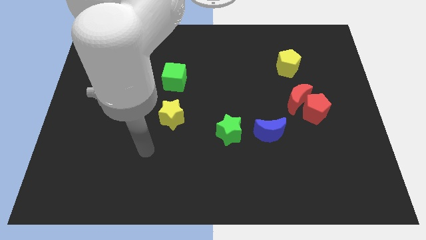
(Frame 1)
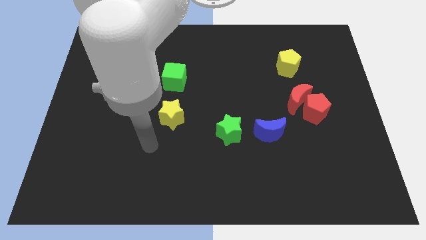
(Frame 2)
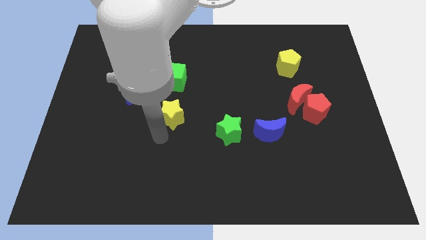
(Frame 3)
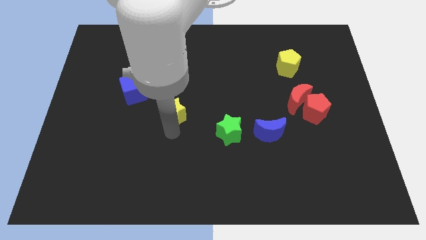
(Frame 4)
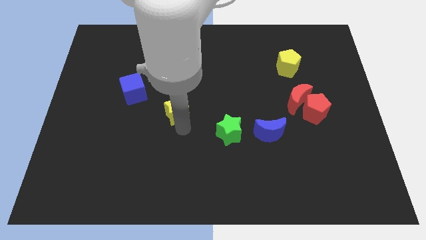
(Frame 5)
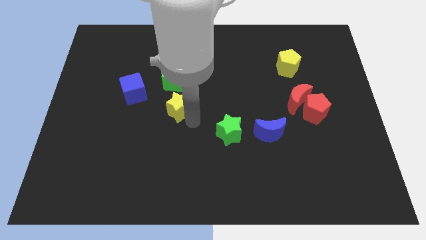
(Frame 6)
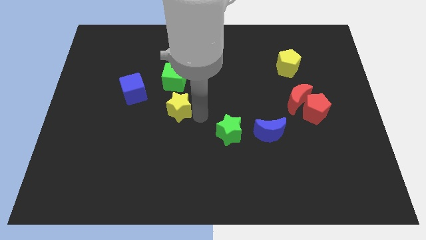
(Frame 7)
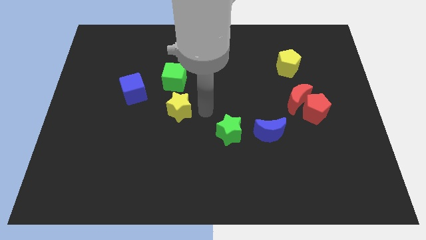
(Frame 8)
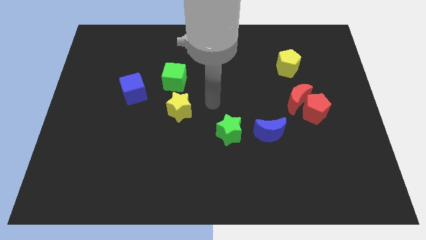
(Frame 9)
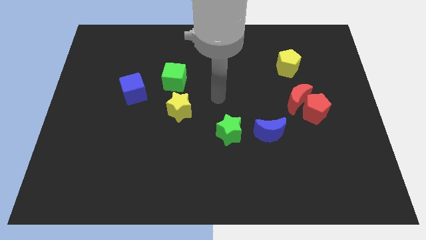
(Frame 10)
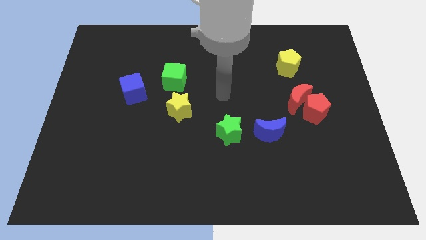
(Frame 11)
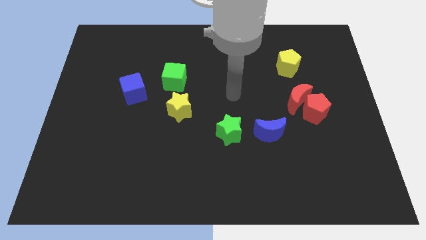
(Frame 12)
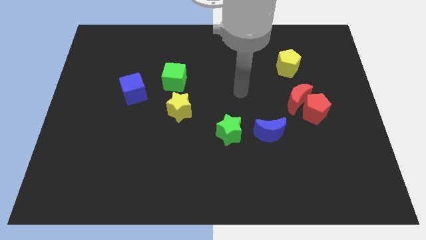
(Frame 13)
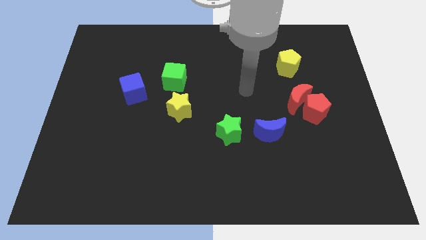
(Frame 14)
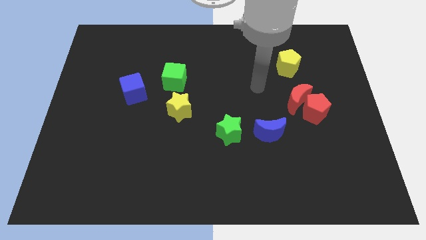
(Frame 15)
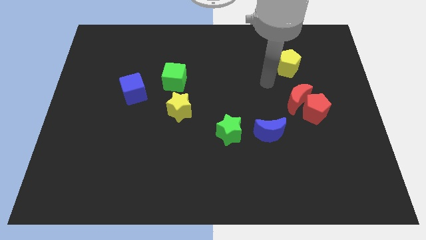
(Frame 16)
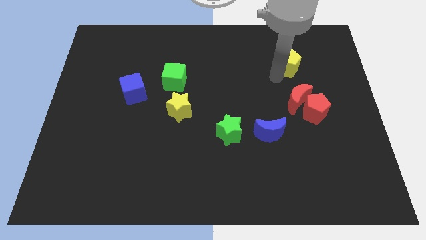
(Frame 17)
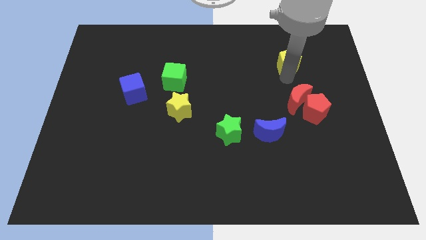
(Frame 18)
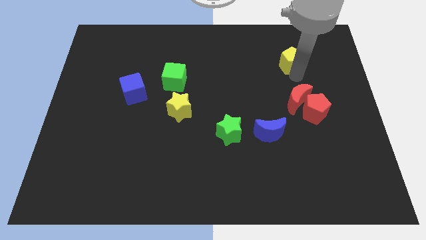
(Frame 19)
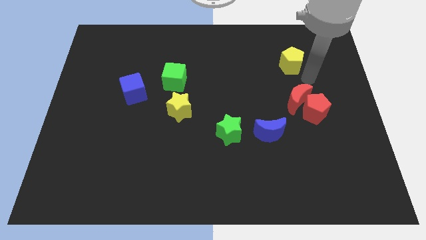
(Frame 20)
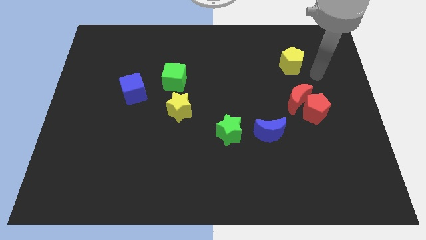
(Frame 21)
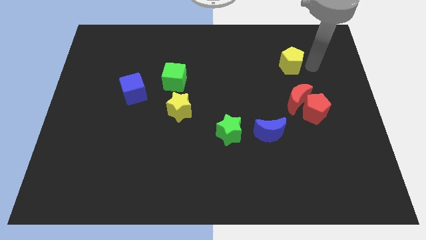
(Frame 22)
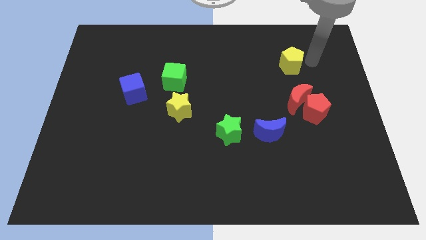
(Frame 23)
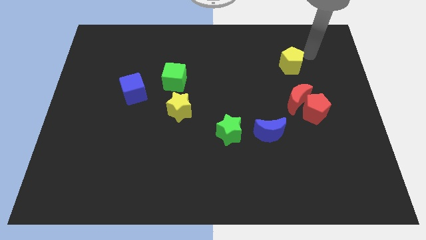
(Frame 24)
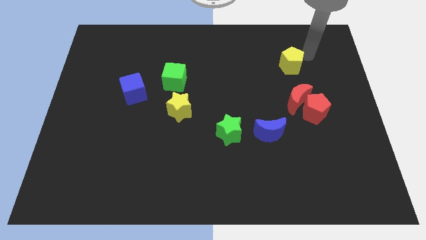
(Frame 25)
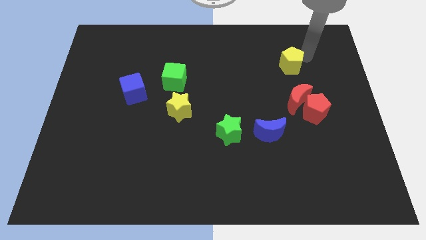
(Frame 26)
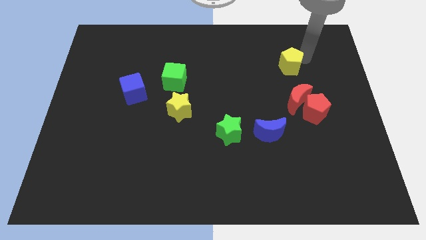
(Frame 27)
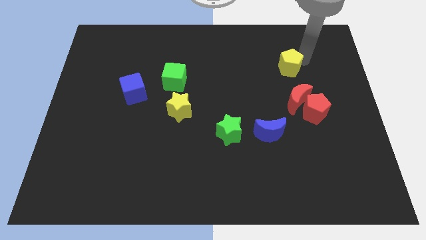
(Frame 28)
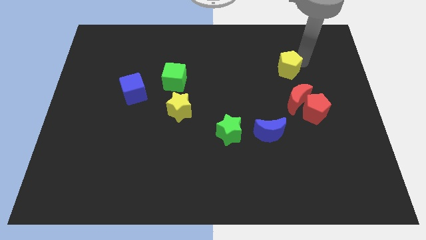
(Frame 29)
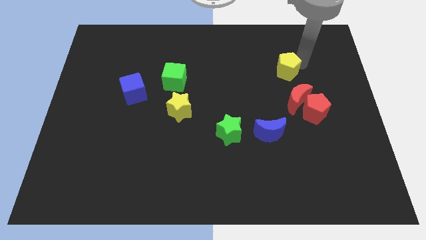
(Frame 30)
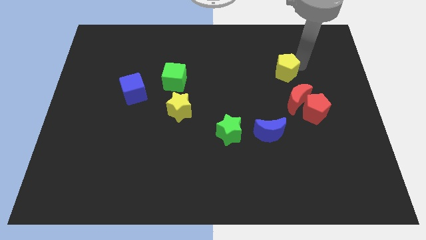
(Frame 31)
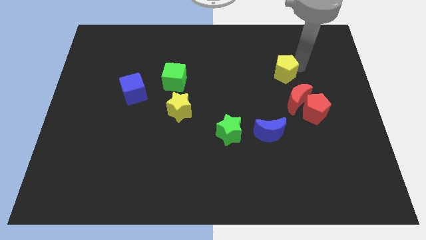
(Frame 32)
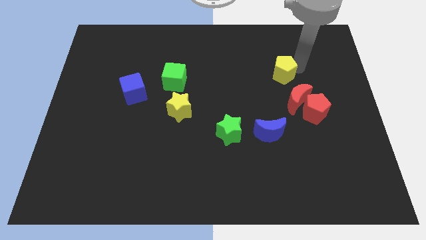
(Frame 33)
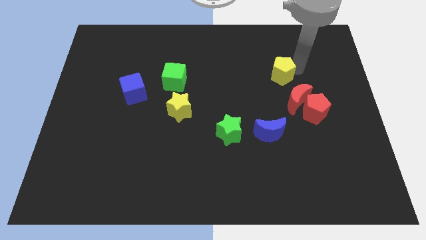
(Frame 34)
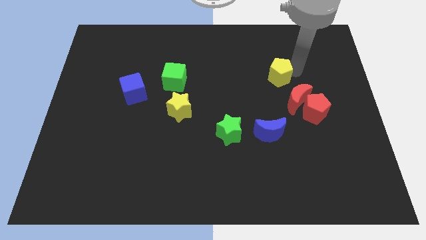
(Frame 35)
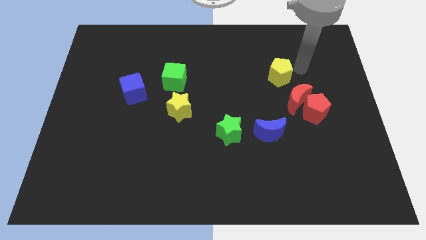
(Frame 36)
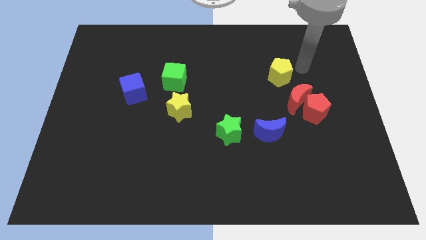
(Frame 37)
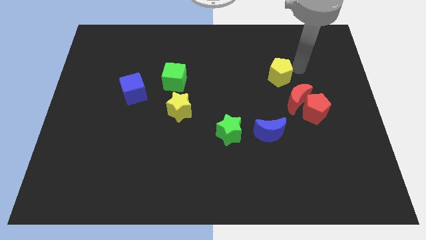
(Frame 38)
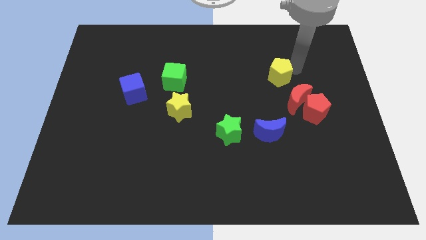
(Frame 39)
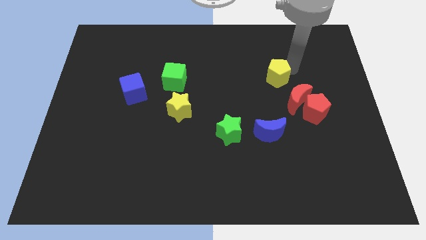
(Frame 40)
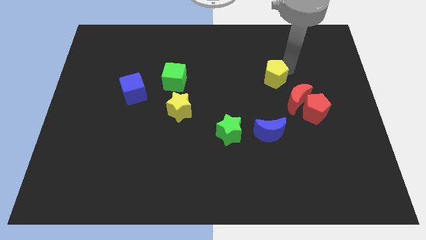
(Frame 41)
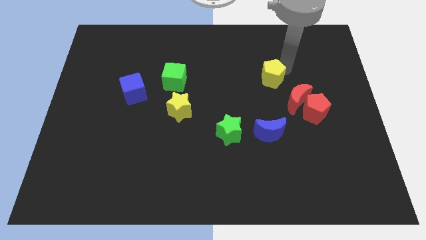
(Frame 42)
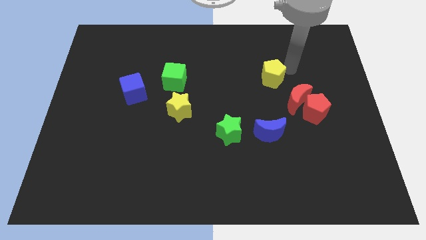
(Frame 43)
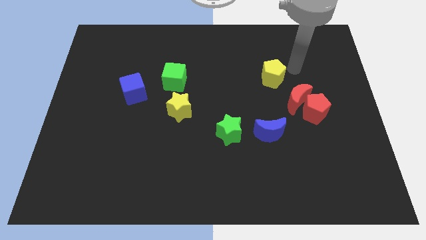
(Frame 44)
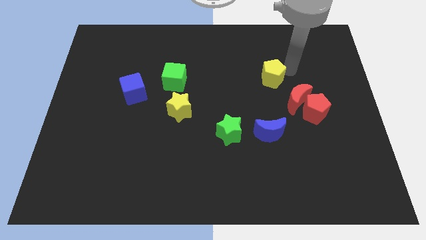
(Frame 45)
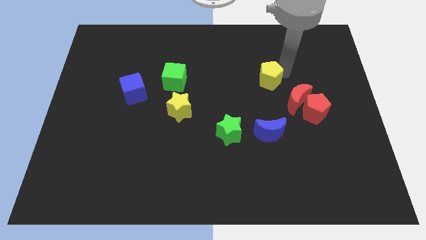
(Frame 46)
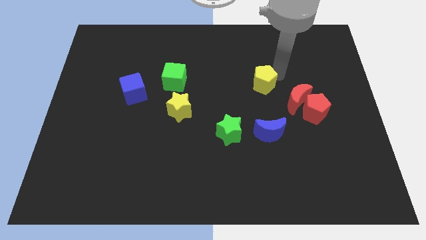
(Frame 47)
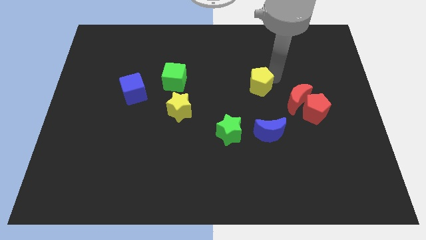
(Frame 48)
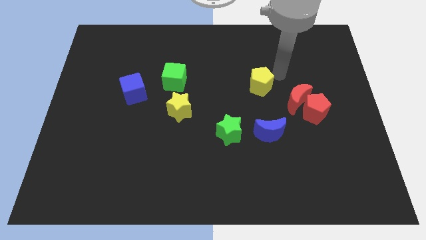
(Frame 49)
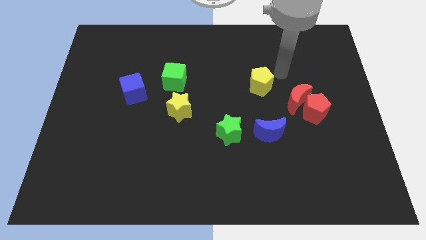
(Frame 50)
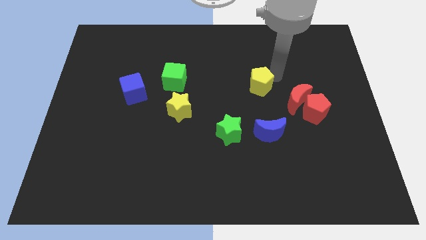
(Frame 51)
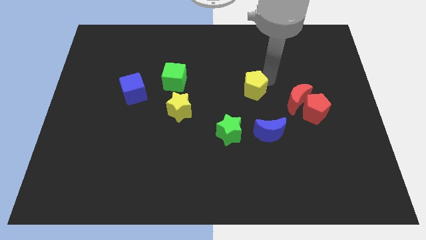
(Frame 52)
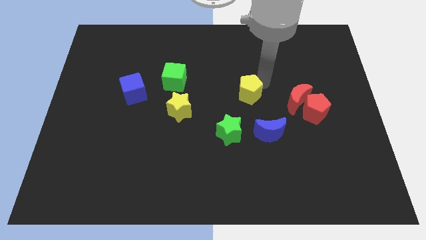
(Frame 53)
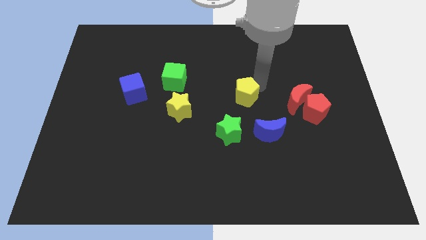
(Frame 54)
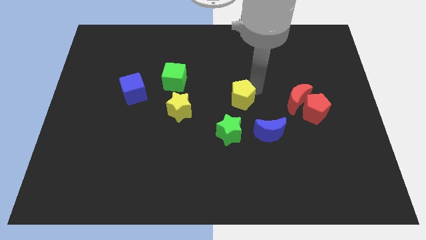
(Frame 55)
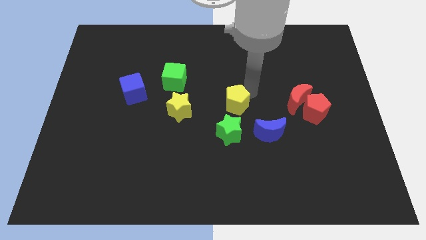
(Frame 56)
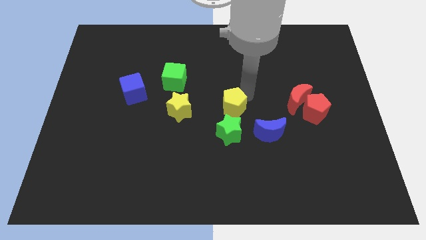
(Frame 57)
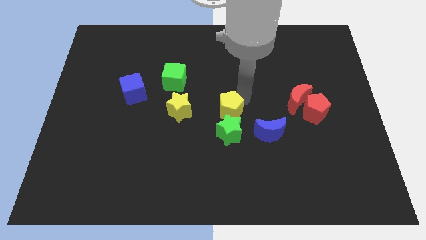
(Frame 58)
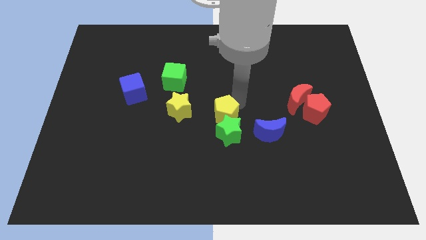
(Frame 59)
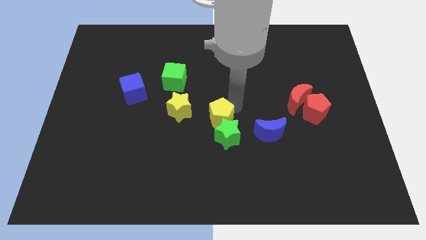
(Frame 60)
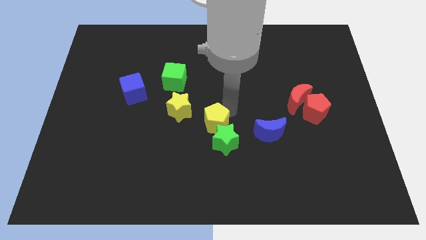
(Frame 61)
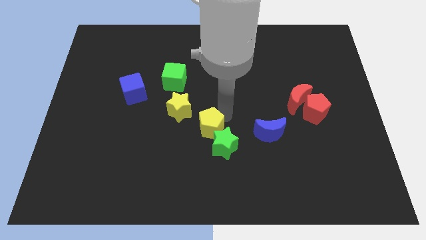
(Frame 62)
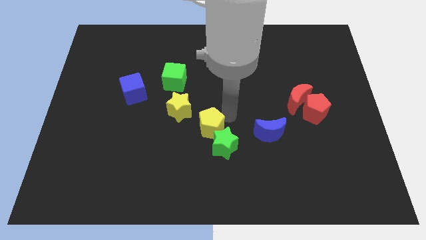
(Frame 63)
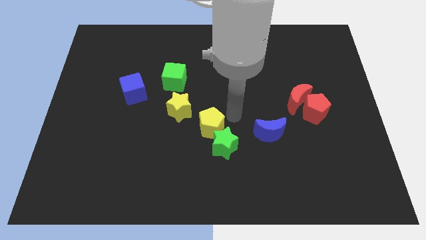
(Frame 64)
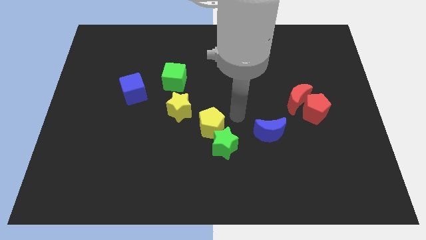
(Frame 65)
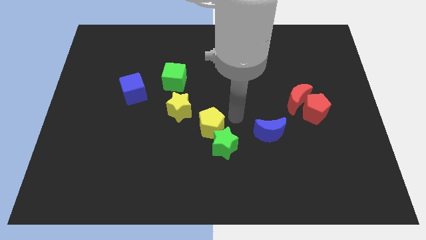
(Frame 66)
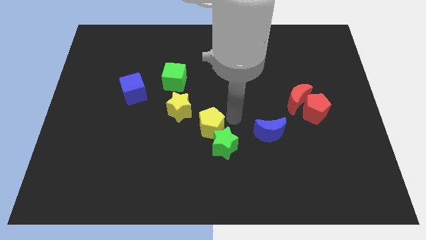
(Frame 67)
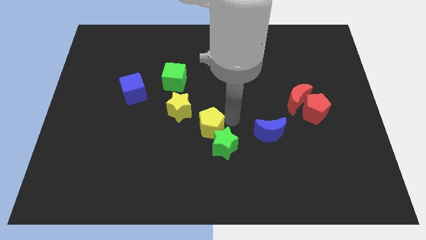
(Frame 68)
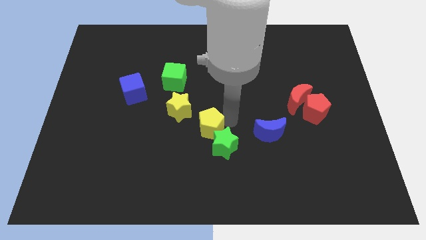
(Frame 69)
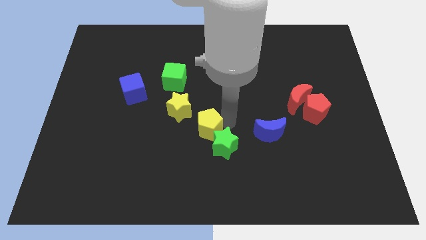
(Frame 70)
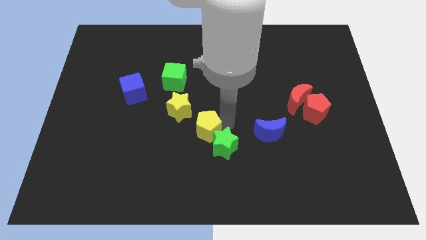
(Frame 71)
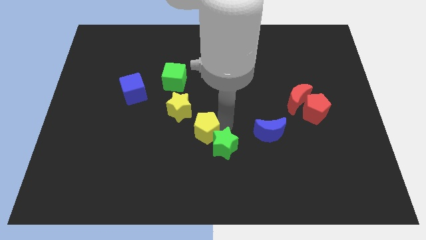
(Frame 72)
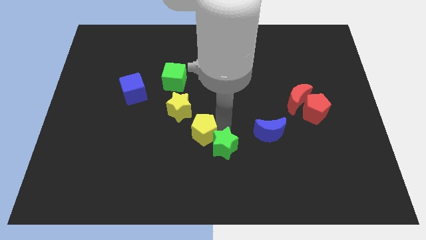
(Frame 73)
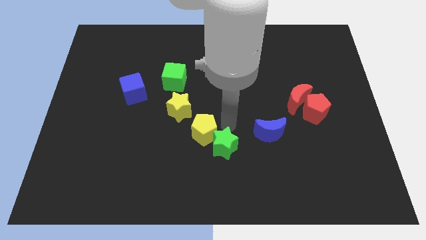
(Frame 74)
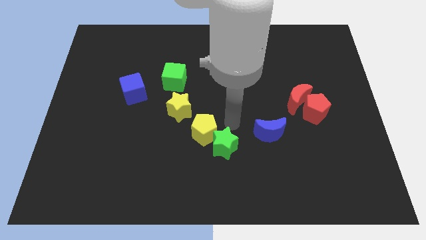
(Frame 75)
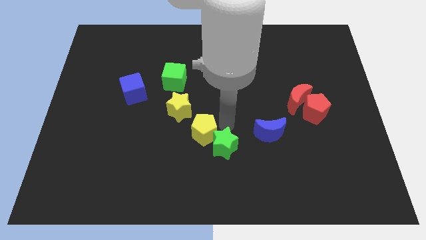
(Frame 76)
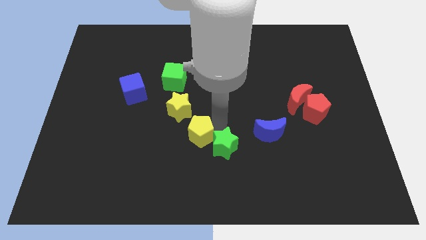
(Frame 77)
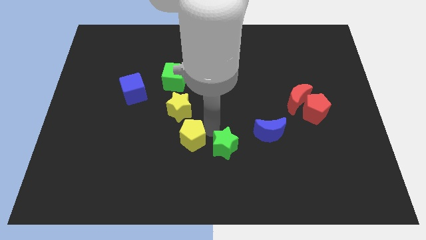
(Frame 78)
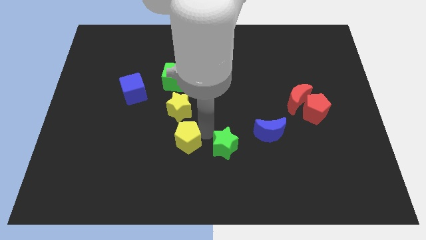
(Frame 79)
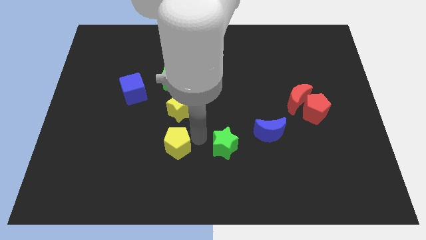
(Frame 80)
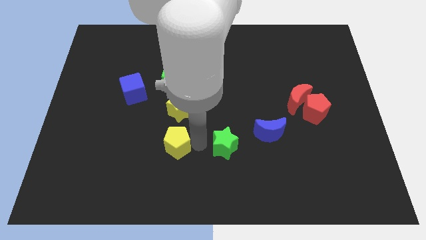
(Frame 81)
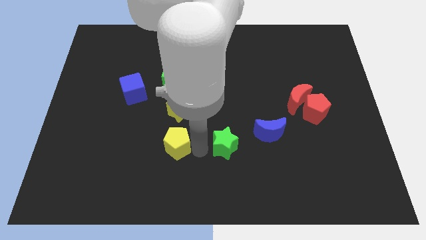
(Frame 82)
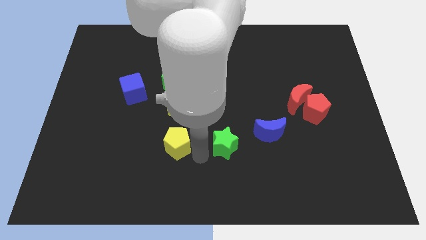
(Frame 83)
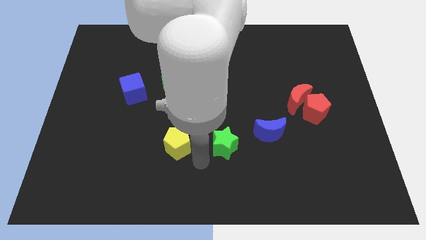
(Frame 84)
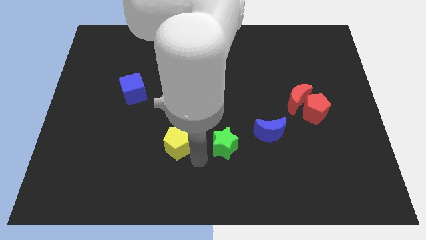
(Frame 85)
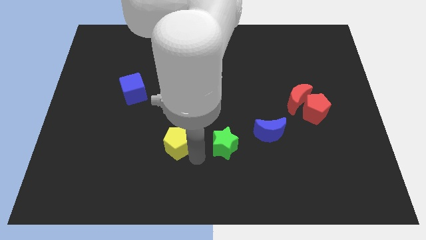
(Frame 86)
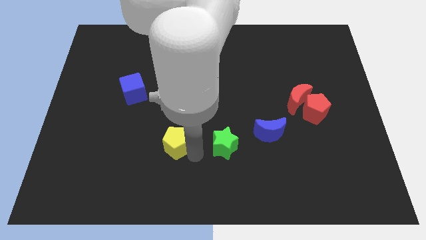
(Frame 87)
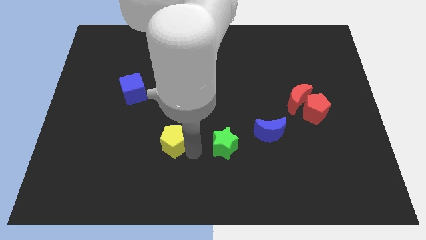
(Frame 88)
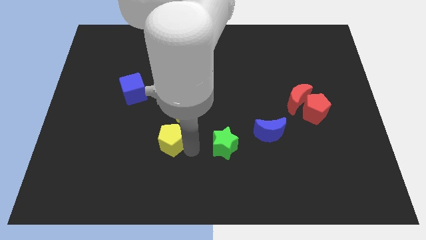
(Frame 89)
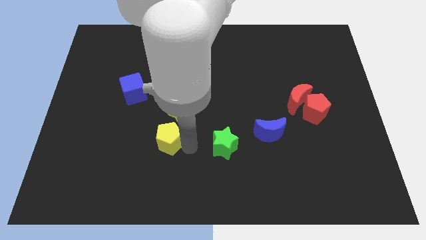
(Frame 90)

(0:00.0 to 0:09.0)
move the yellow pentagon to the bottom left side of the yellow star
